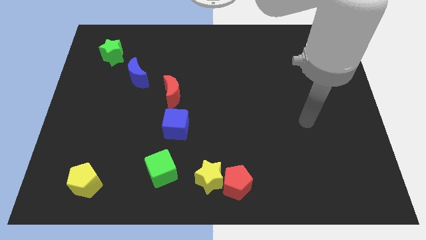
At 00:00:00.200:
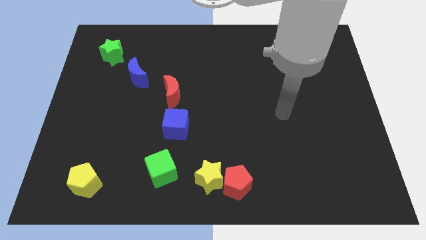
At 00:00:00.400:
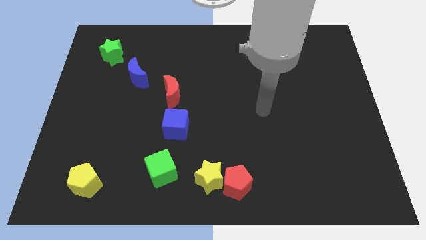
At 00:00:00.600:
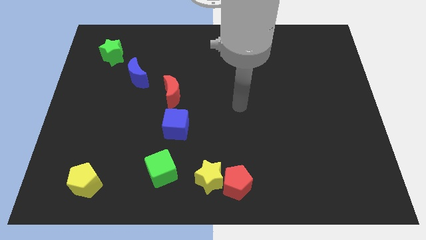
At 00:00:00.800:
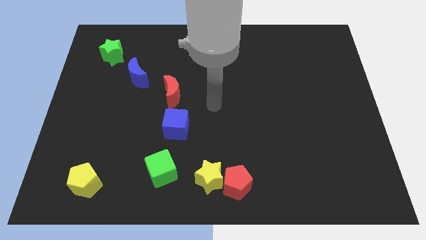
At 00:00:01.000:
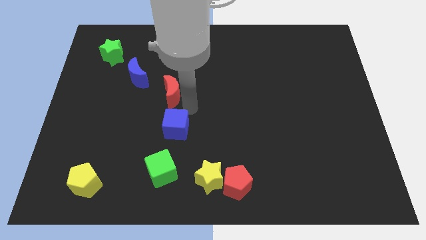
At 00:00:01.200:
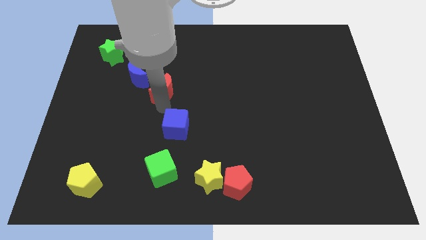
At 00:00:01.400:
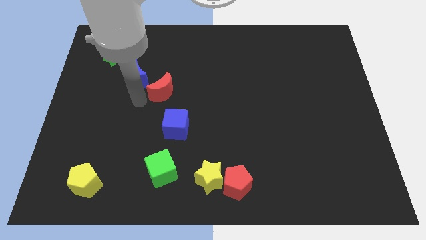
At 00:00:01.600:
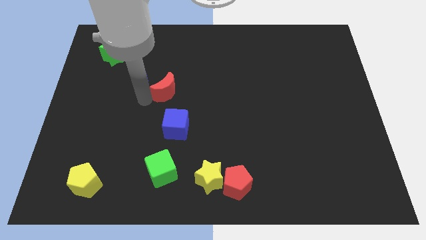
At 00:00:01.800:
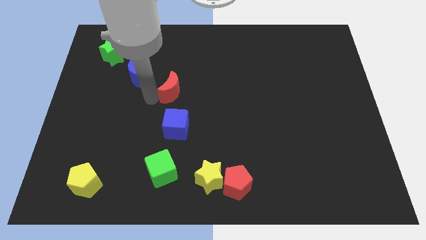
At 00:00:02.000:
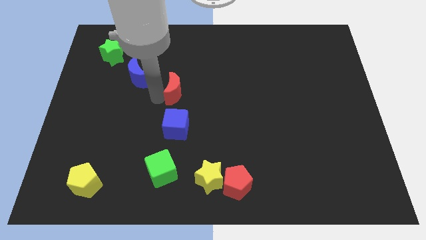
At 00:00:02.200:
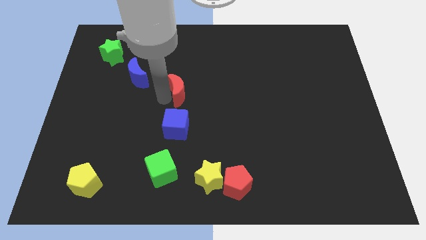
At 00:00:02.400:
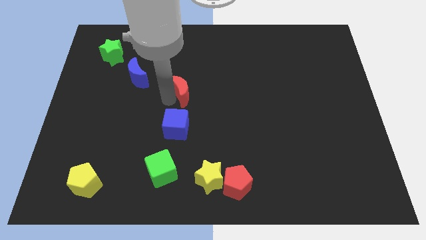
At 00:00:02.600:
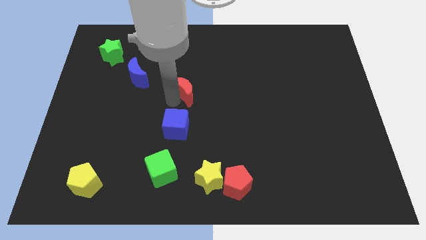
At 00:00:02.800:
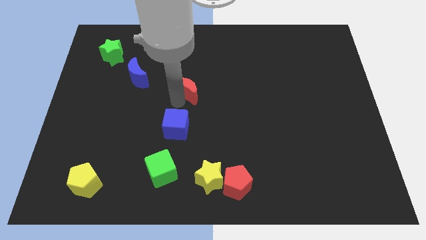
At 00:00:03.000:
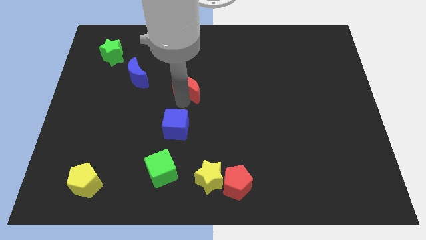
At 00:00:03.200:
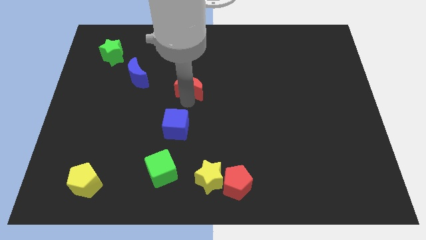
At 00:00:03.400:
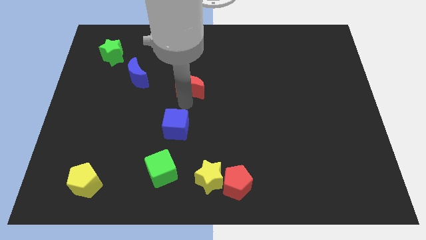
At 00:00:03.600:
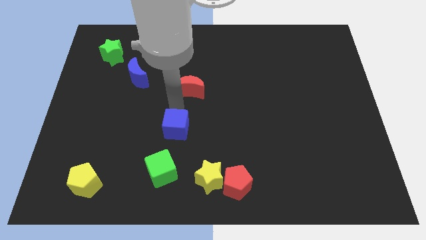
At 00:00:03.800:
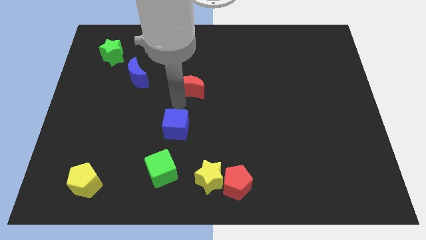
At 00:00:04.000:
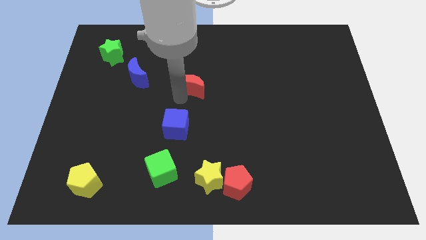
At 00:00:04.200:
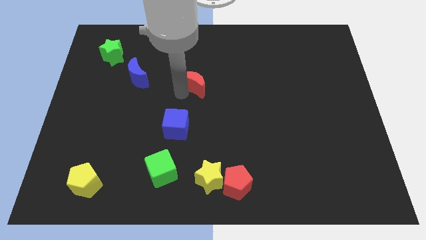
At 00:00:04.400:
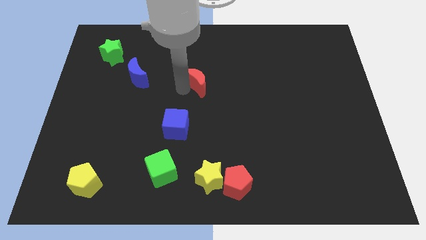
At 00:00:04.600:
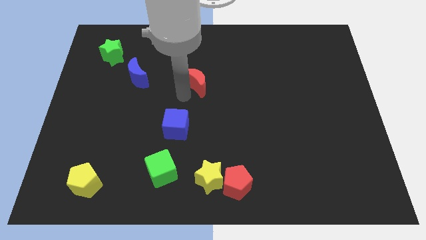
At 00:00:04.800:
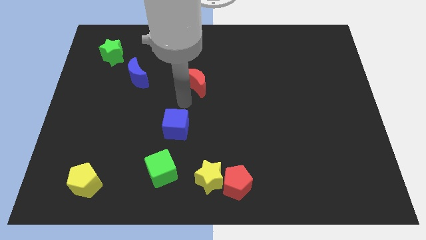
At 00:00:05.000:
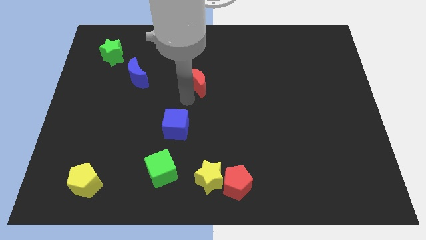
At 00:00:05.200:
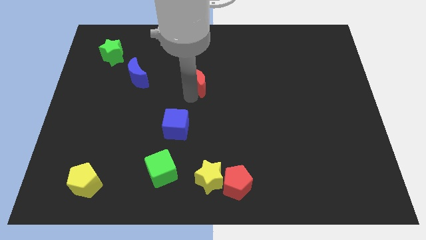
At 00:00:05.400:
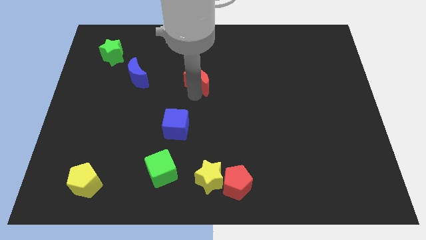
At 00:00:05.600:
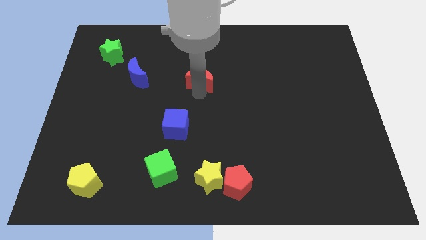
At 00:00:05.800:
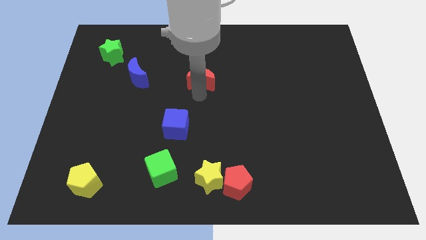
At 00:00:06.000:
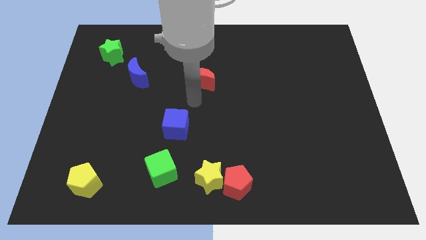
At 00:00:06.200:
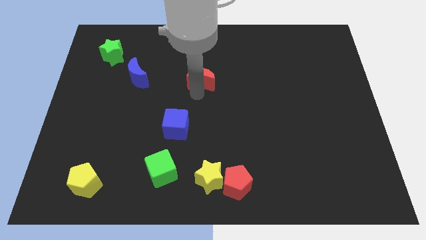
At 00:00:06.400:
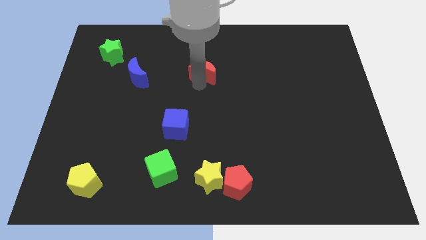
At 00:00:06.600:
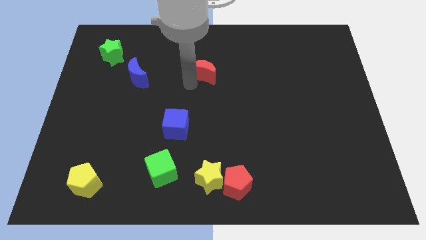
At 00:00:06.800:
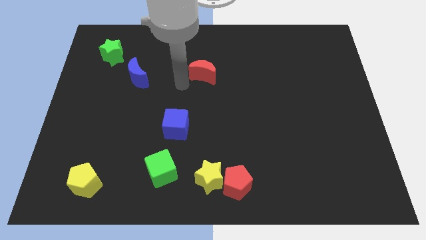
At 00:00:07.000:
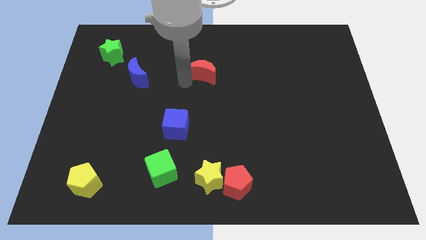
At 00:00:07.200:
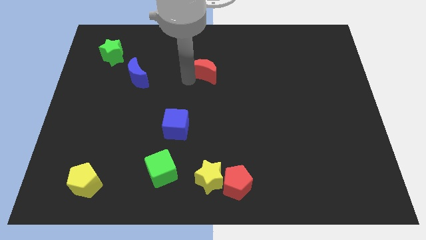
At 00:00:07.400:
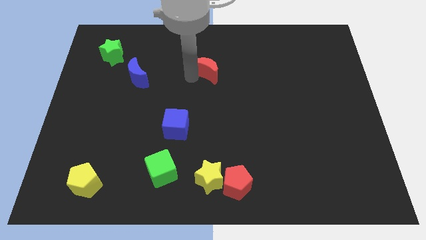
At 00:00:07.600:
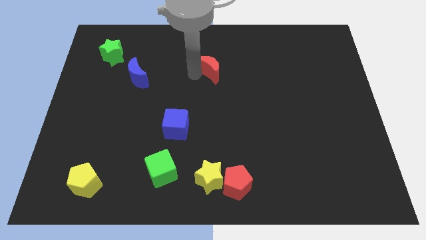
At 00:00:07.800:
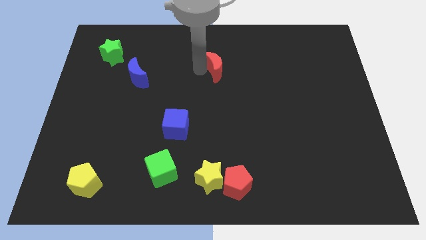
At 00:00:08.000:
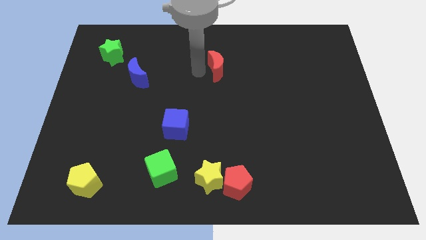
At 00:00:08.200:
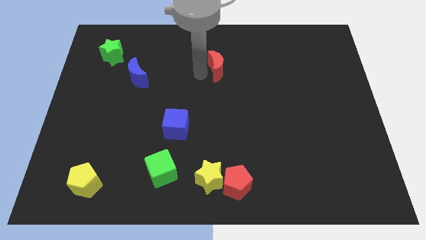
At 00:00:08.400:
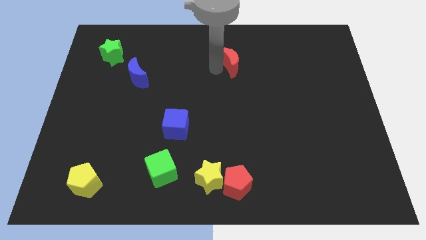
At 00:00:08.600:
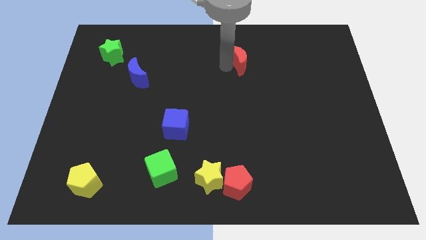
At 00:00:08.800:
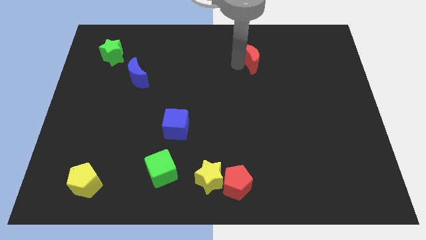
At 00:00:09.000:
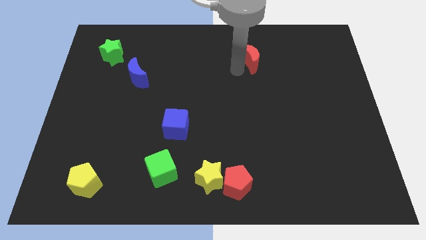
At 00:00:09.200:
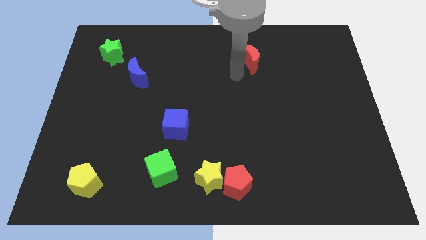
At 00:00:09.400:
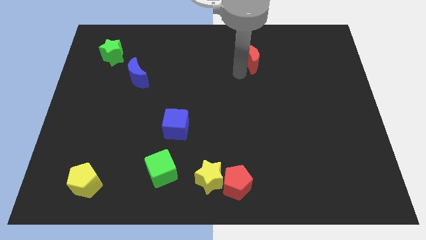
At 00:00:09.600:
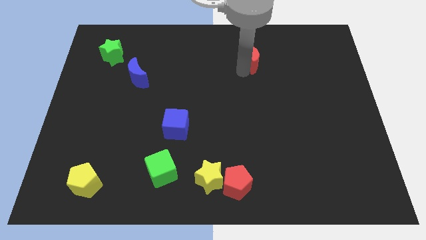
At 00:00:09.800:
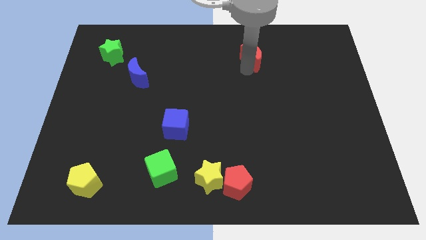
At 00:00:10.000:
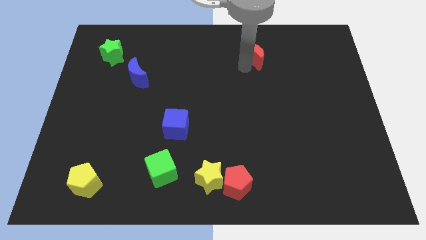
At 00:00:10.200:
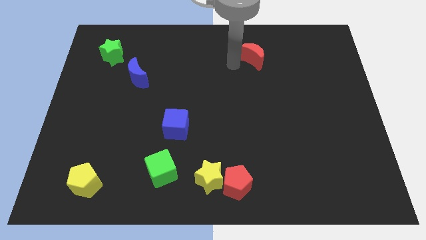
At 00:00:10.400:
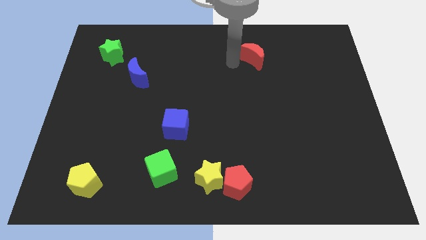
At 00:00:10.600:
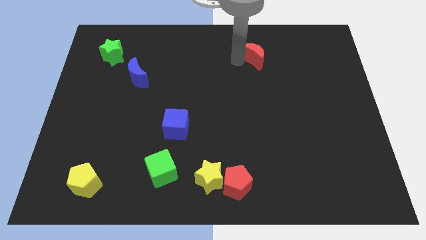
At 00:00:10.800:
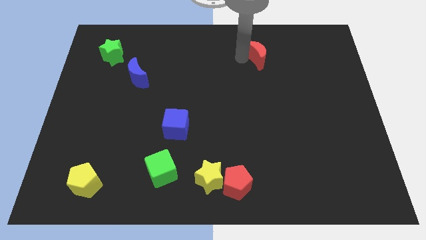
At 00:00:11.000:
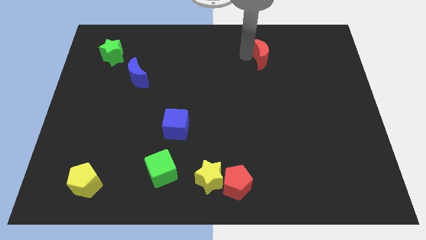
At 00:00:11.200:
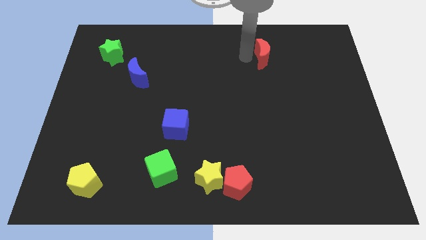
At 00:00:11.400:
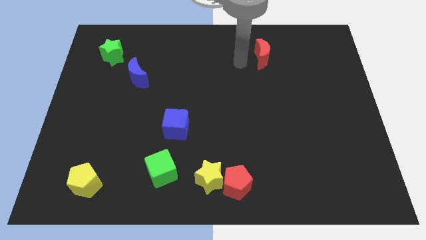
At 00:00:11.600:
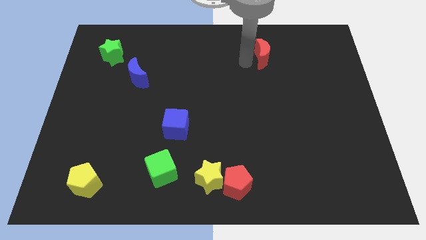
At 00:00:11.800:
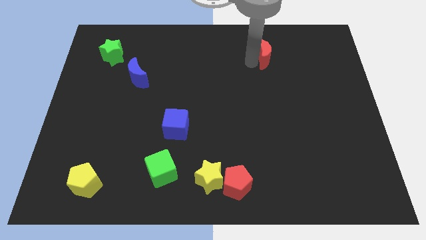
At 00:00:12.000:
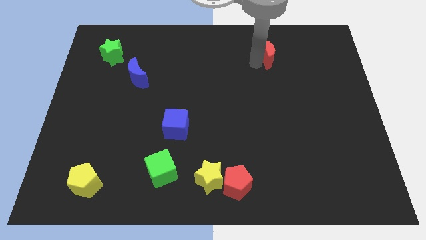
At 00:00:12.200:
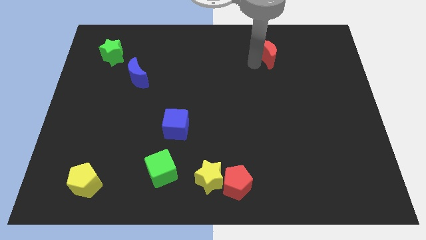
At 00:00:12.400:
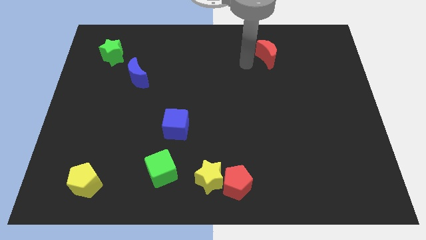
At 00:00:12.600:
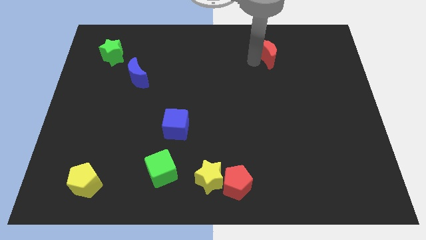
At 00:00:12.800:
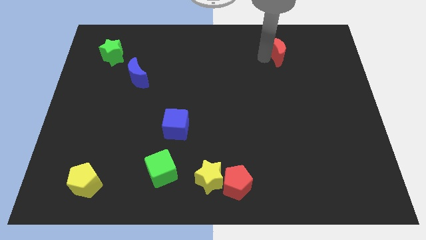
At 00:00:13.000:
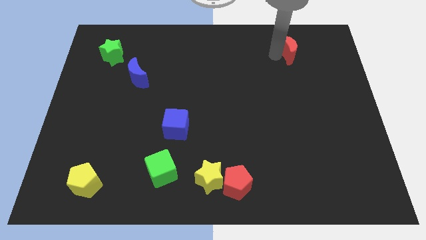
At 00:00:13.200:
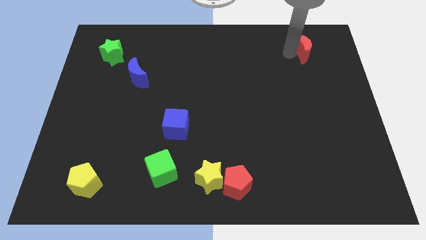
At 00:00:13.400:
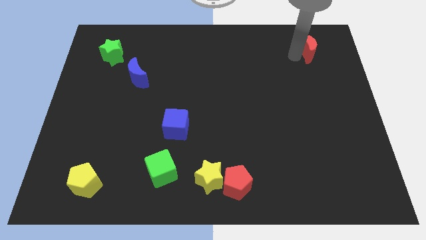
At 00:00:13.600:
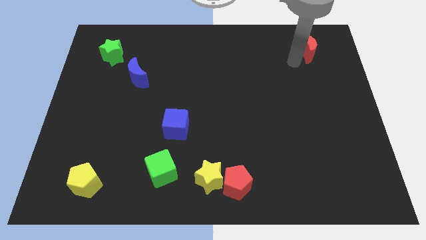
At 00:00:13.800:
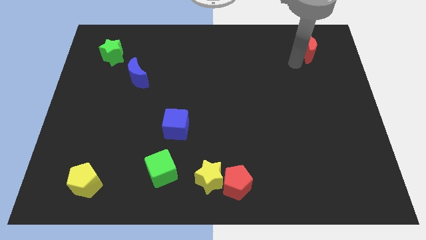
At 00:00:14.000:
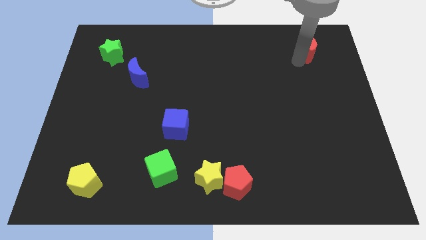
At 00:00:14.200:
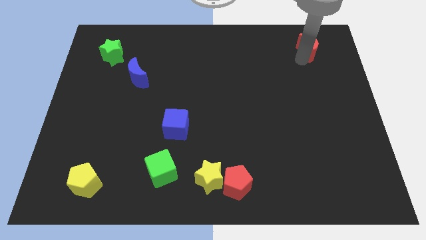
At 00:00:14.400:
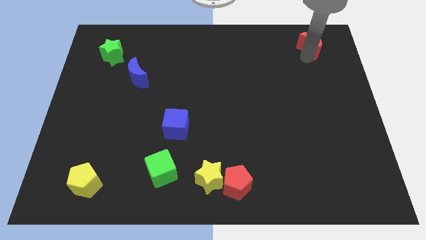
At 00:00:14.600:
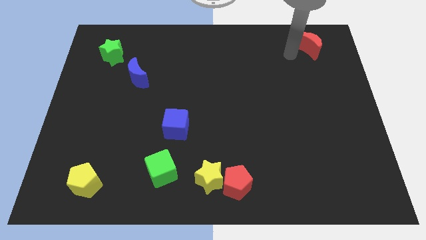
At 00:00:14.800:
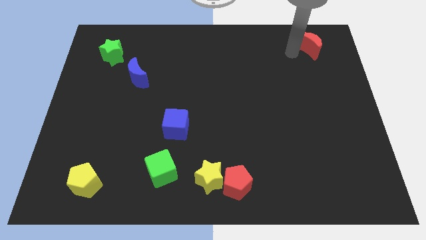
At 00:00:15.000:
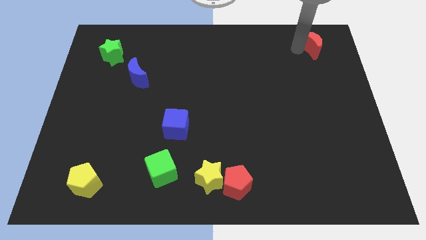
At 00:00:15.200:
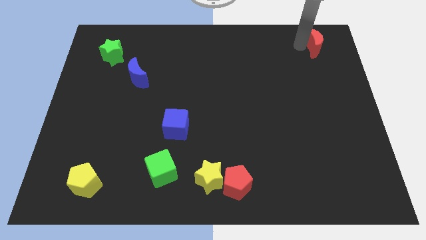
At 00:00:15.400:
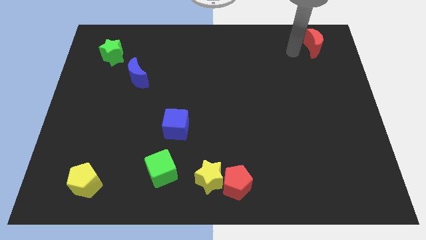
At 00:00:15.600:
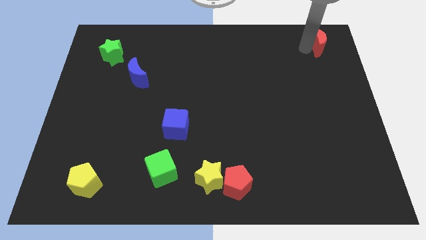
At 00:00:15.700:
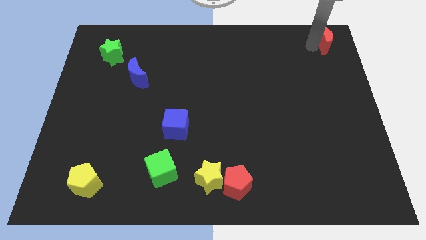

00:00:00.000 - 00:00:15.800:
slide the red moon to the top right corner
